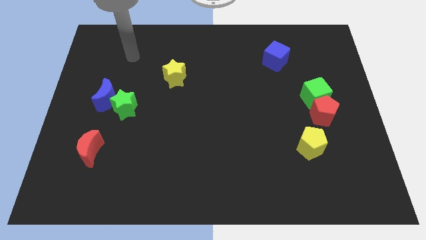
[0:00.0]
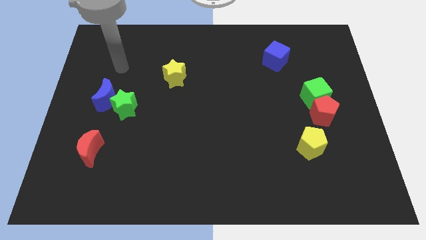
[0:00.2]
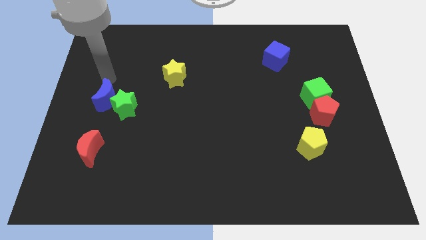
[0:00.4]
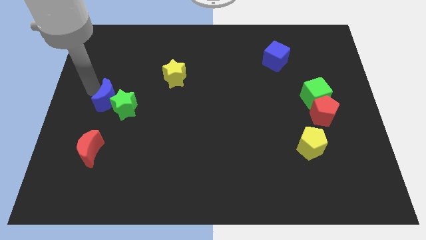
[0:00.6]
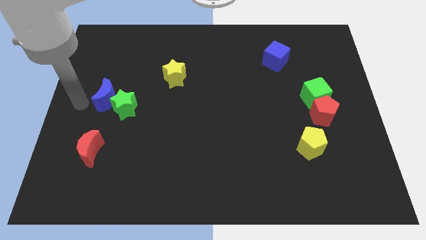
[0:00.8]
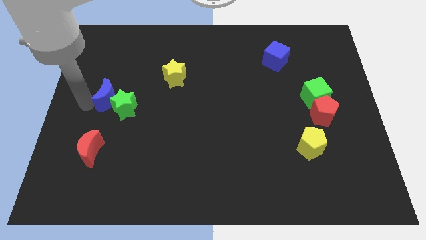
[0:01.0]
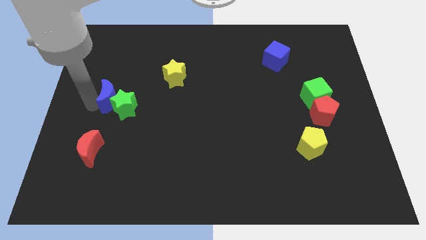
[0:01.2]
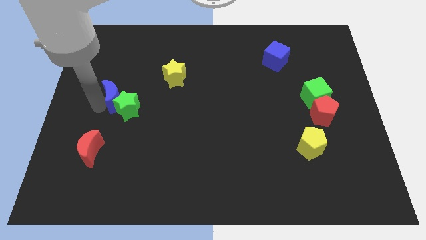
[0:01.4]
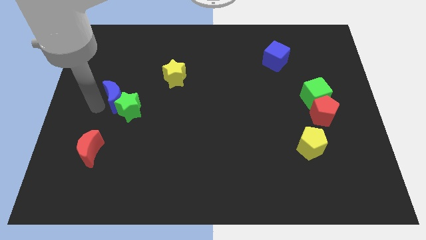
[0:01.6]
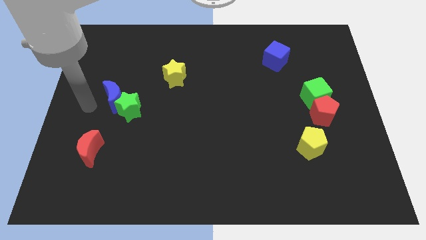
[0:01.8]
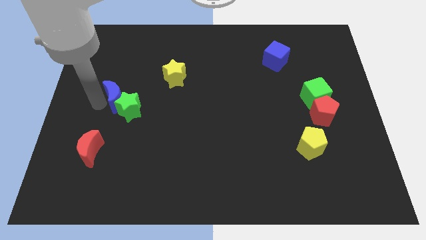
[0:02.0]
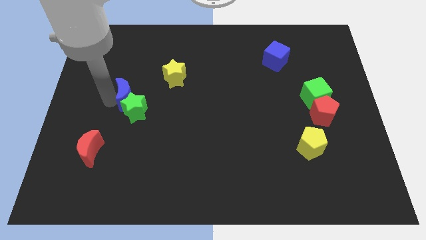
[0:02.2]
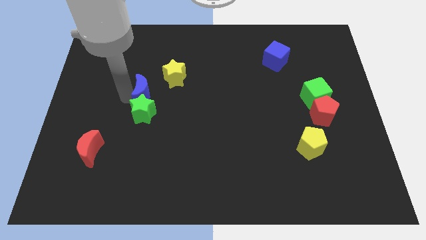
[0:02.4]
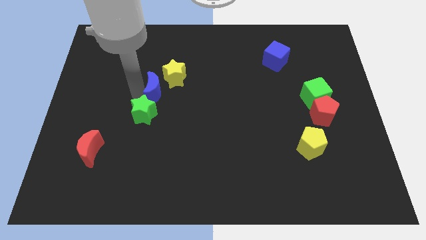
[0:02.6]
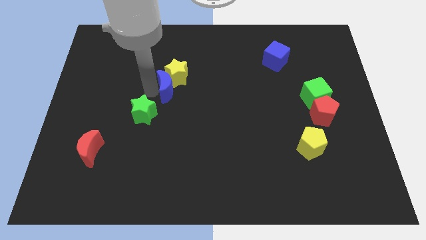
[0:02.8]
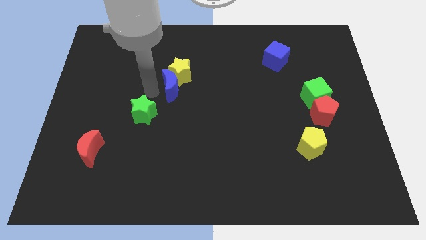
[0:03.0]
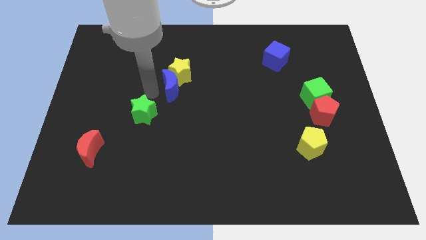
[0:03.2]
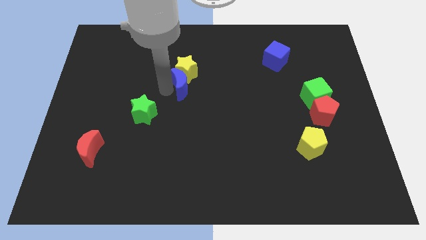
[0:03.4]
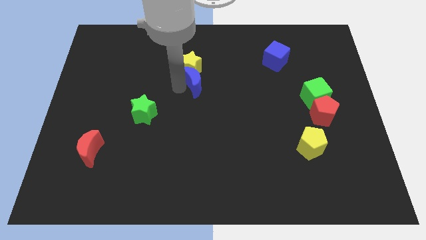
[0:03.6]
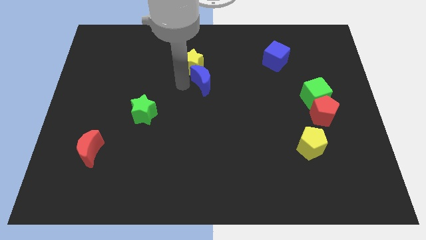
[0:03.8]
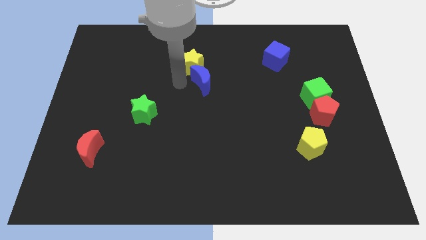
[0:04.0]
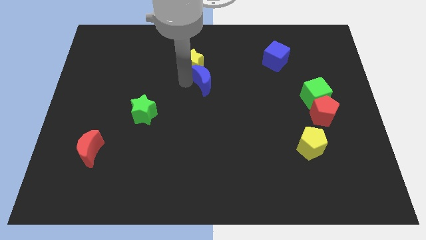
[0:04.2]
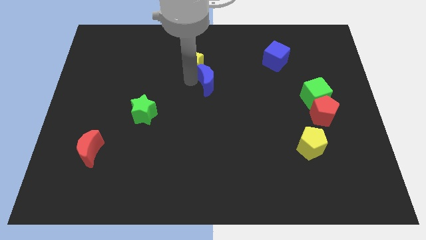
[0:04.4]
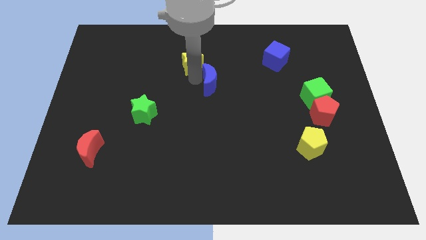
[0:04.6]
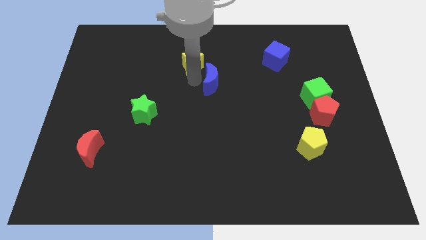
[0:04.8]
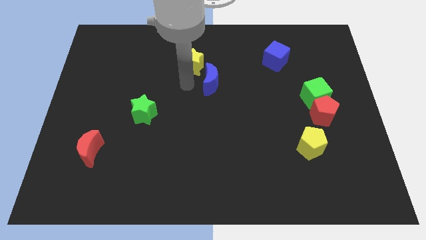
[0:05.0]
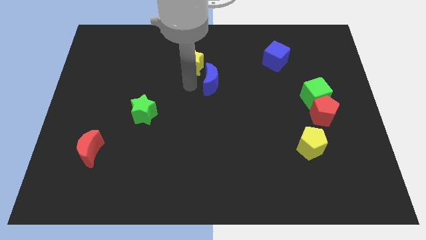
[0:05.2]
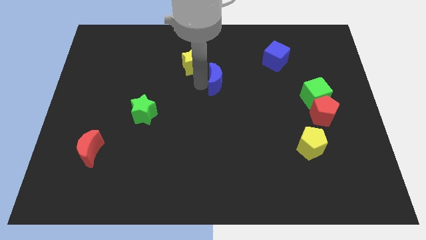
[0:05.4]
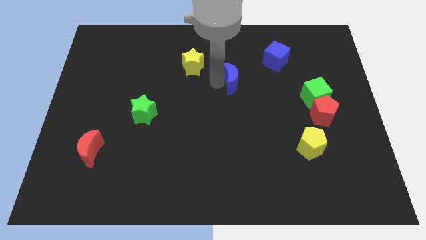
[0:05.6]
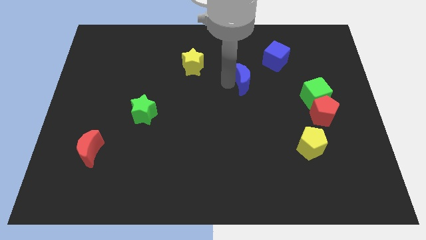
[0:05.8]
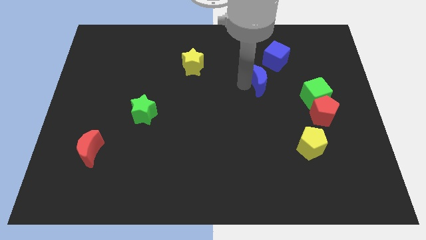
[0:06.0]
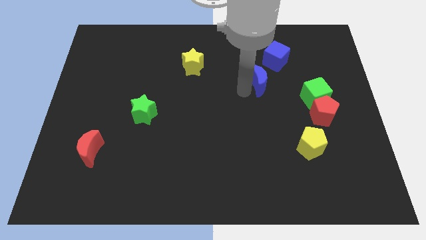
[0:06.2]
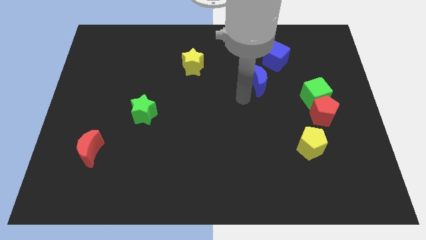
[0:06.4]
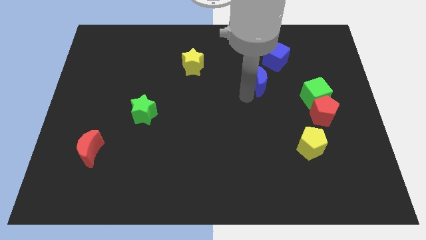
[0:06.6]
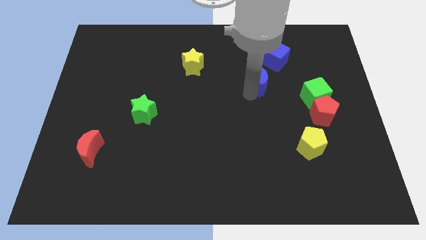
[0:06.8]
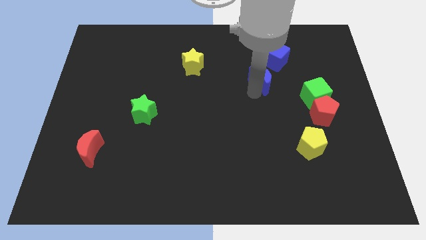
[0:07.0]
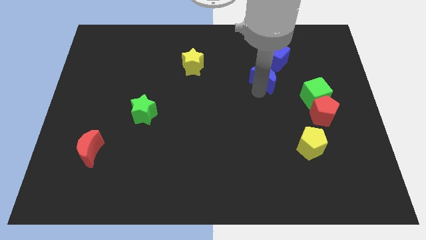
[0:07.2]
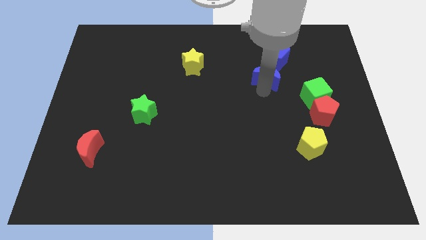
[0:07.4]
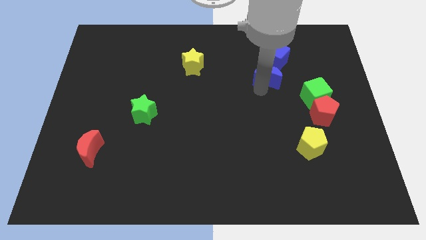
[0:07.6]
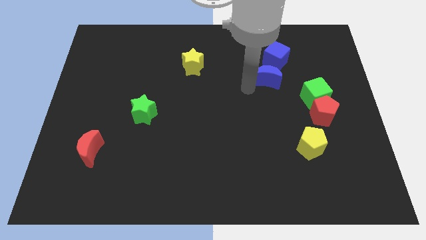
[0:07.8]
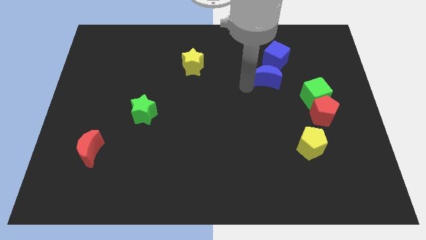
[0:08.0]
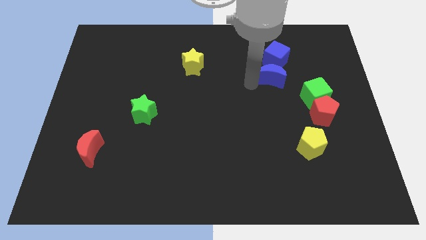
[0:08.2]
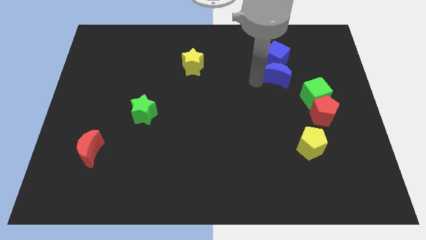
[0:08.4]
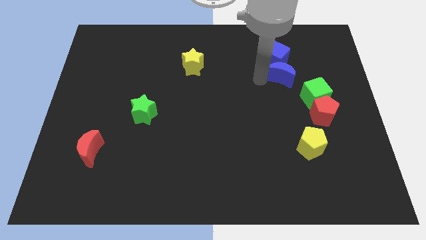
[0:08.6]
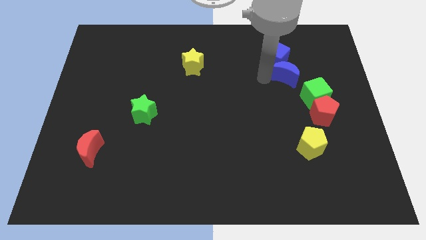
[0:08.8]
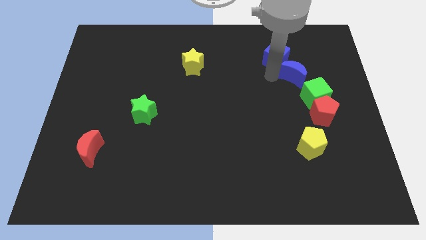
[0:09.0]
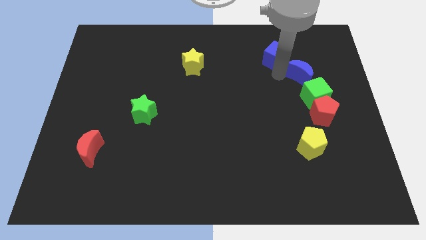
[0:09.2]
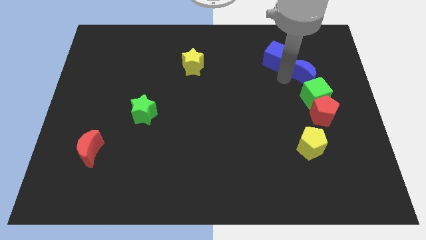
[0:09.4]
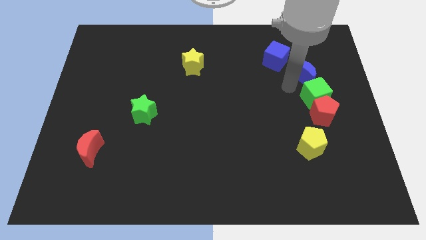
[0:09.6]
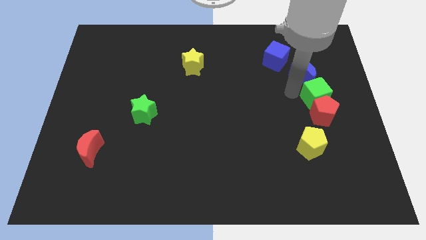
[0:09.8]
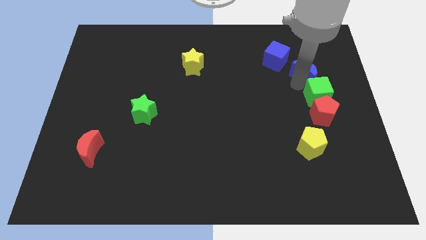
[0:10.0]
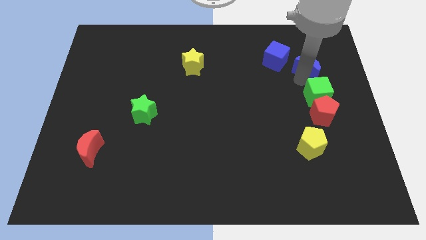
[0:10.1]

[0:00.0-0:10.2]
slide the blue moon just right of the blue cube

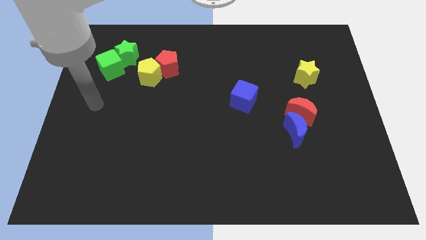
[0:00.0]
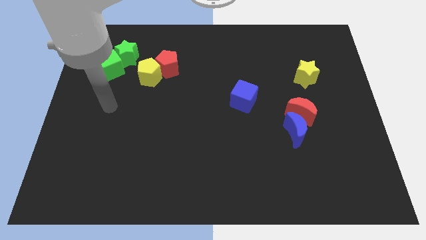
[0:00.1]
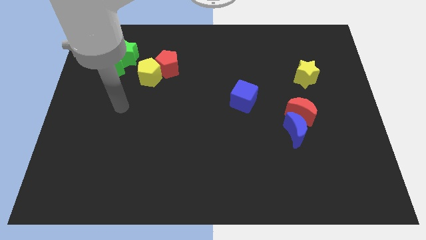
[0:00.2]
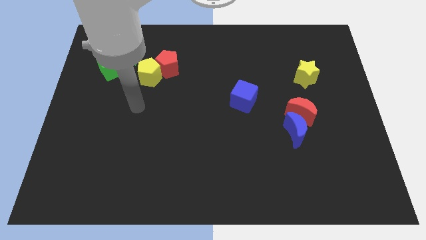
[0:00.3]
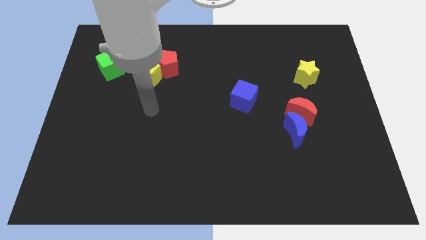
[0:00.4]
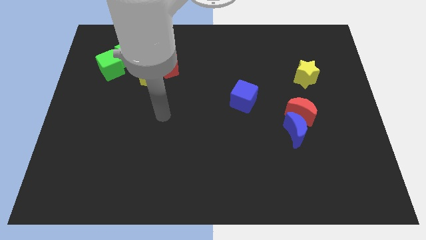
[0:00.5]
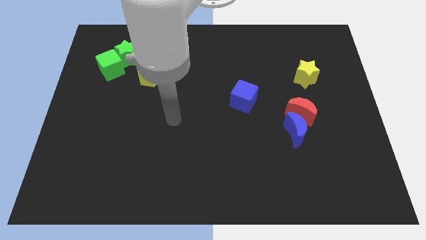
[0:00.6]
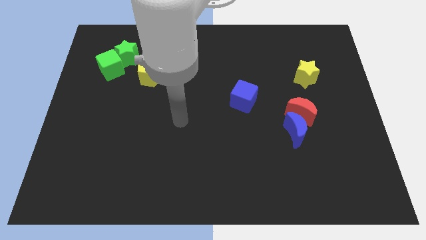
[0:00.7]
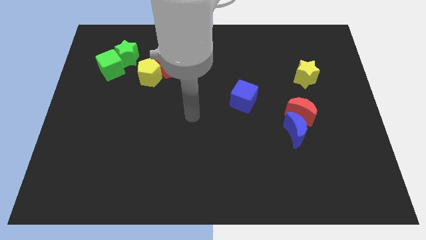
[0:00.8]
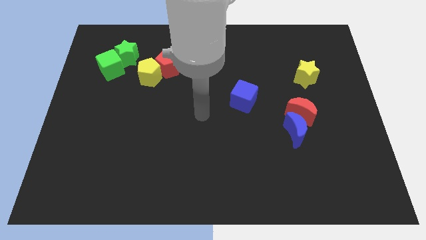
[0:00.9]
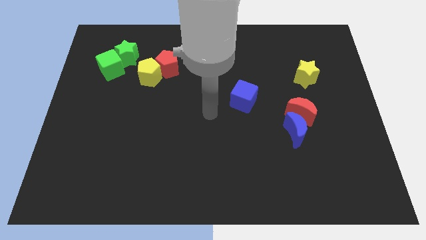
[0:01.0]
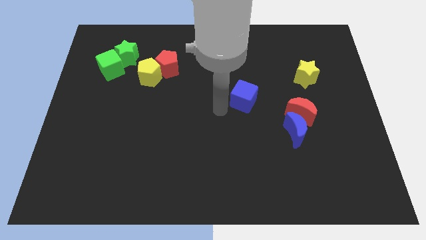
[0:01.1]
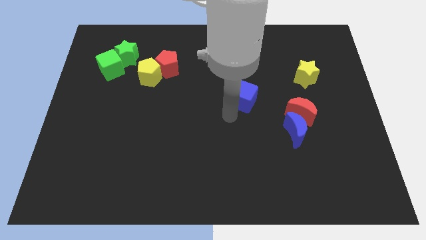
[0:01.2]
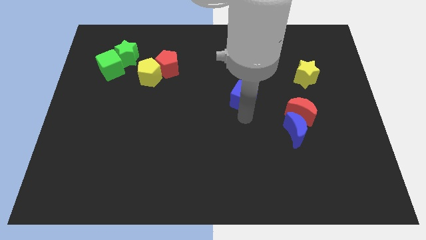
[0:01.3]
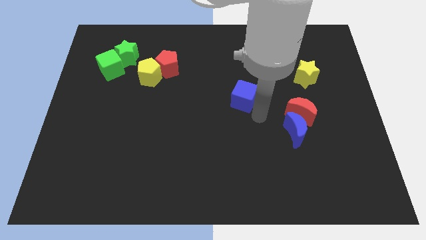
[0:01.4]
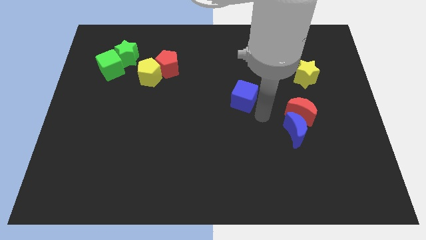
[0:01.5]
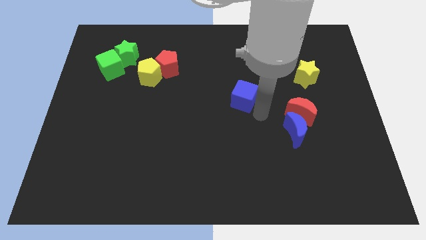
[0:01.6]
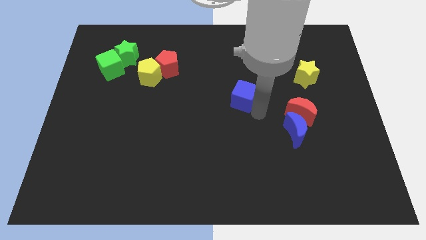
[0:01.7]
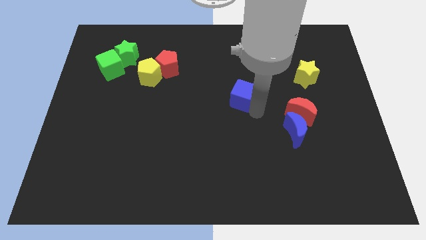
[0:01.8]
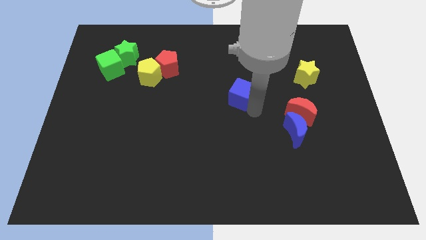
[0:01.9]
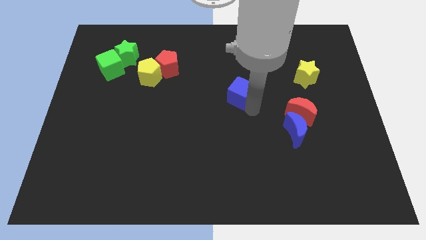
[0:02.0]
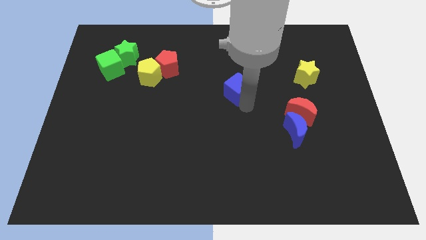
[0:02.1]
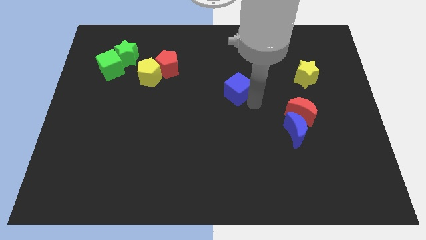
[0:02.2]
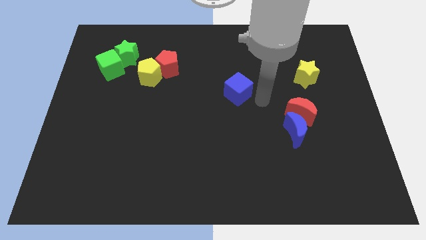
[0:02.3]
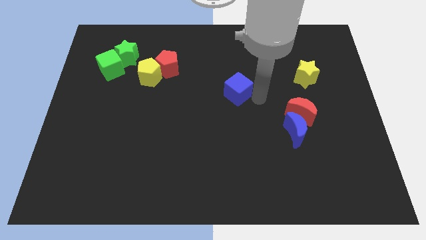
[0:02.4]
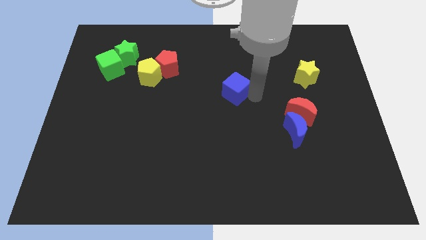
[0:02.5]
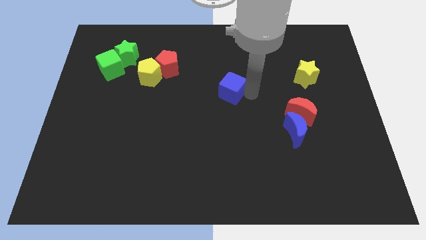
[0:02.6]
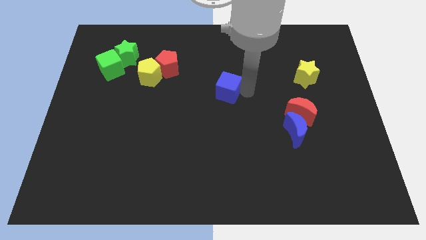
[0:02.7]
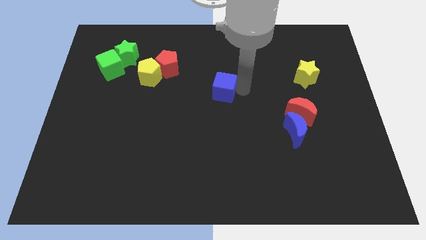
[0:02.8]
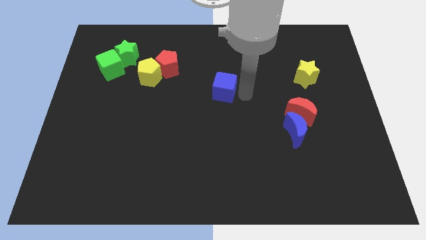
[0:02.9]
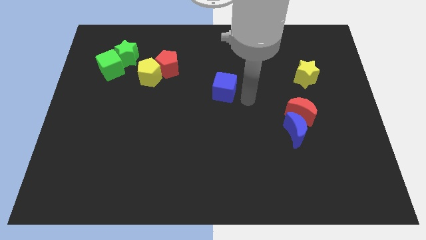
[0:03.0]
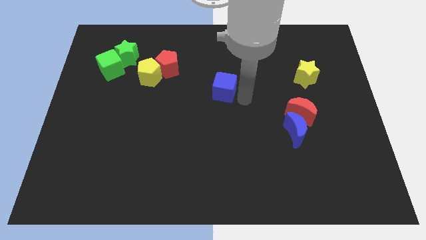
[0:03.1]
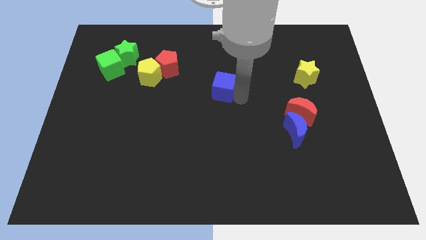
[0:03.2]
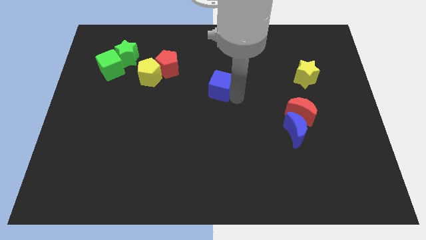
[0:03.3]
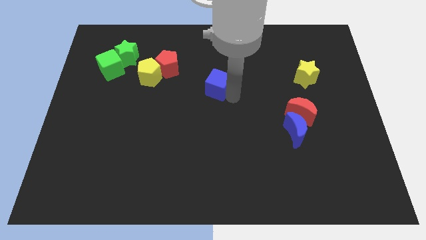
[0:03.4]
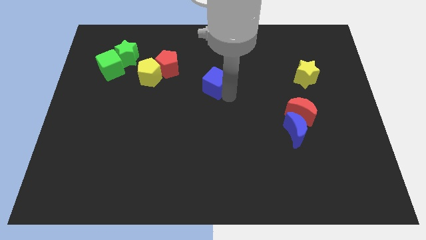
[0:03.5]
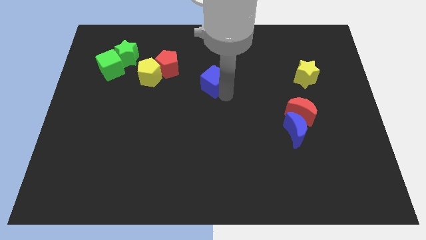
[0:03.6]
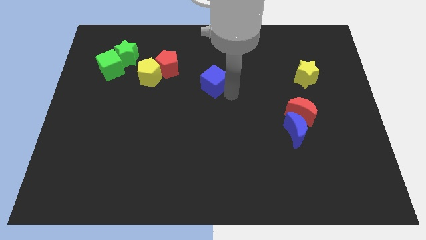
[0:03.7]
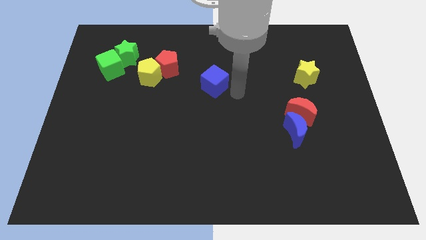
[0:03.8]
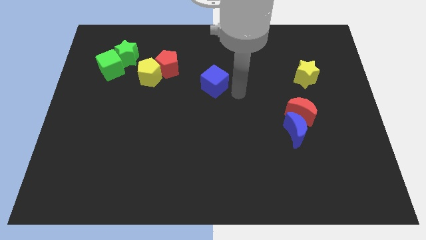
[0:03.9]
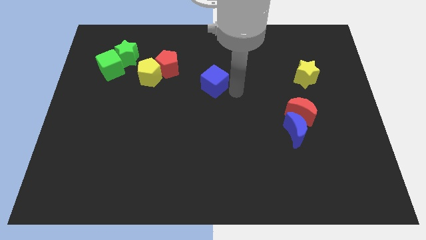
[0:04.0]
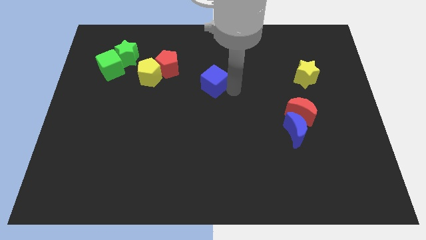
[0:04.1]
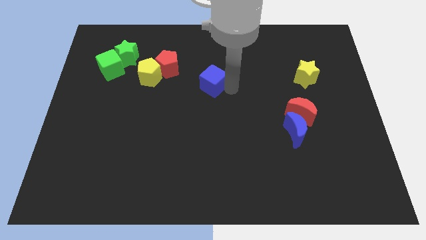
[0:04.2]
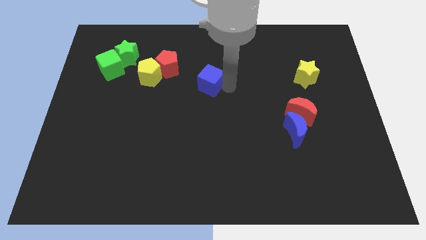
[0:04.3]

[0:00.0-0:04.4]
slide the blue cube to the right side of the yellow pentagon
